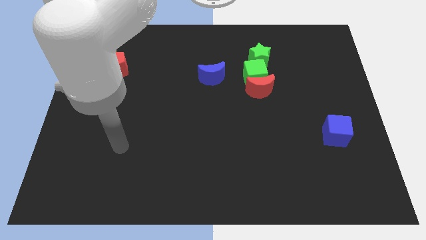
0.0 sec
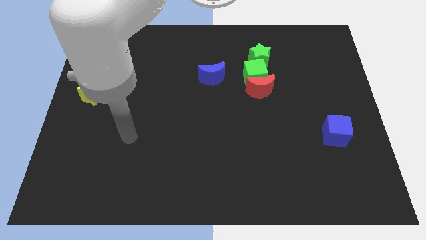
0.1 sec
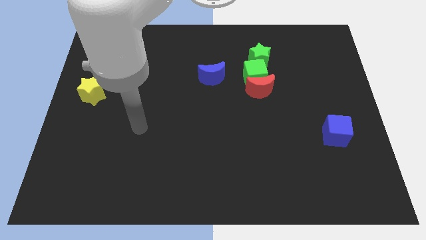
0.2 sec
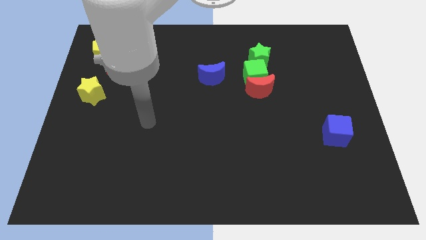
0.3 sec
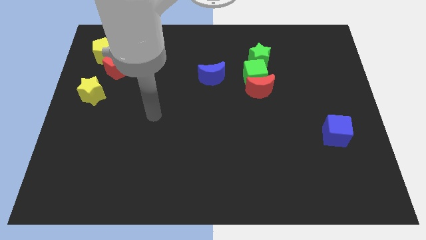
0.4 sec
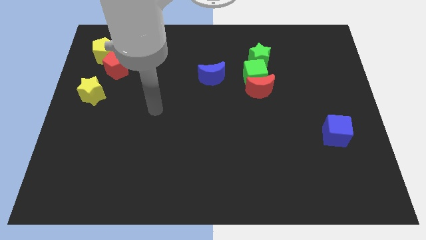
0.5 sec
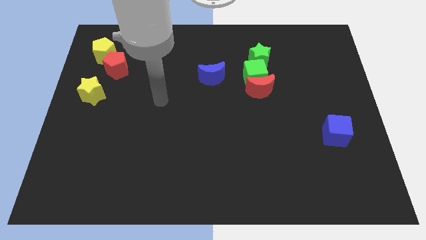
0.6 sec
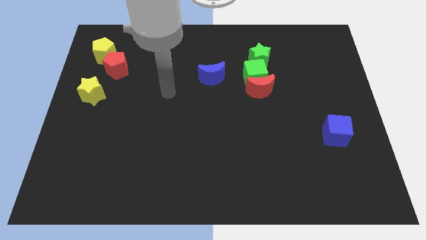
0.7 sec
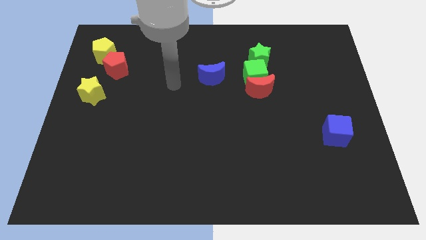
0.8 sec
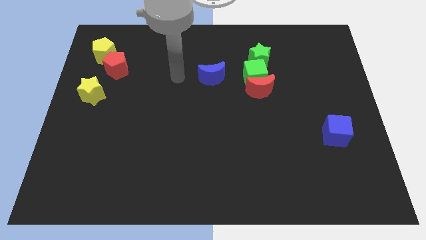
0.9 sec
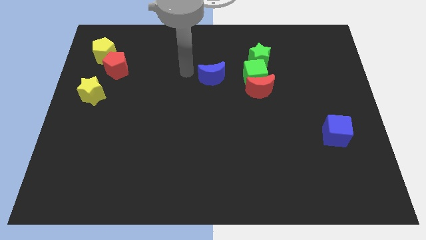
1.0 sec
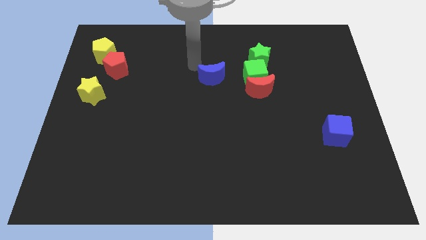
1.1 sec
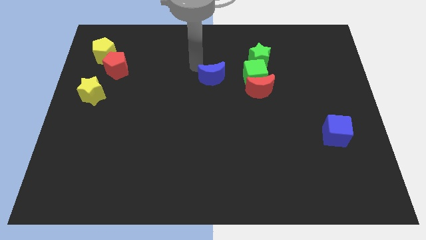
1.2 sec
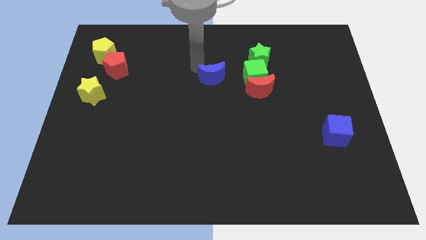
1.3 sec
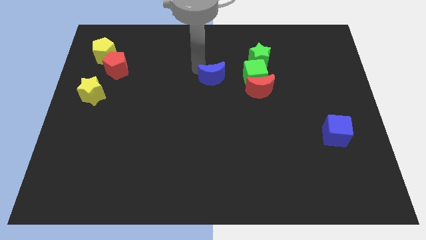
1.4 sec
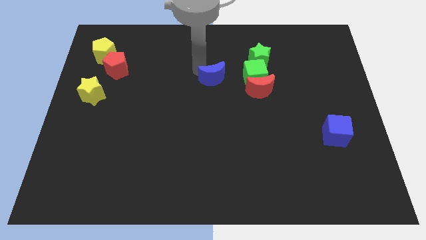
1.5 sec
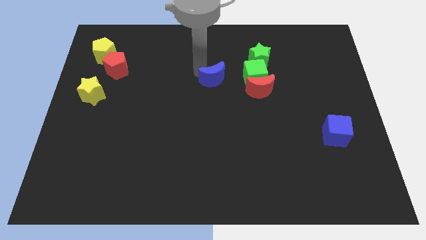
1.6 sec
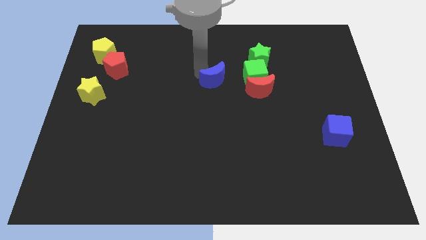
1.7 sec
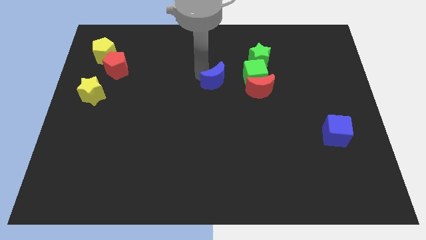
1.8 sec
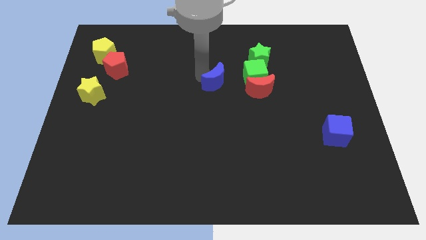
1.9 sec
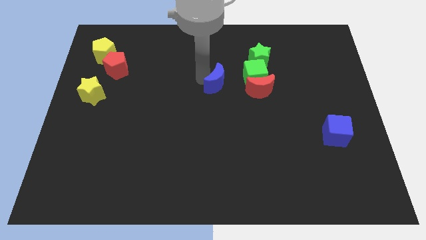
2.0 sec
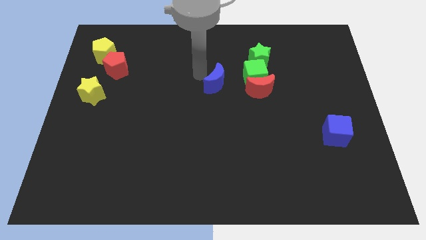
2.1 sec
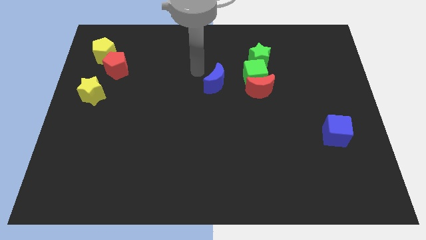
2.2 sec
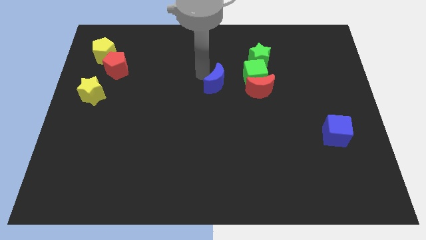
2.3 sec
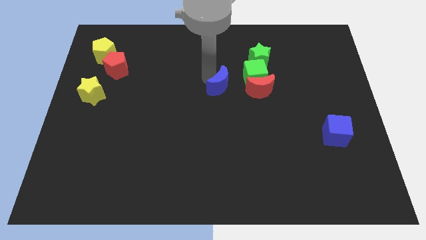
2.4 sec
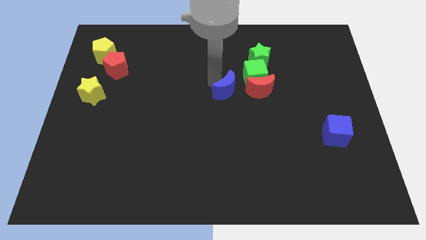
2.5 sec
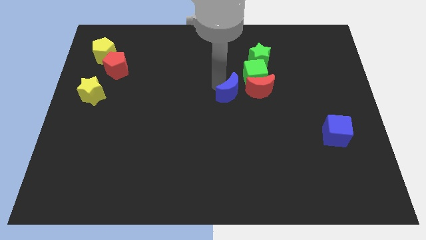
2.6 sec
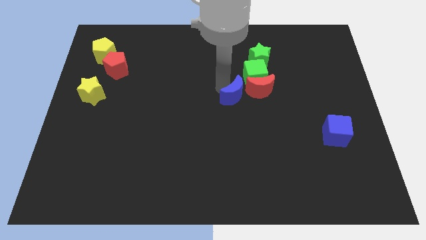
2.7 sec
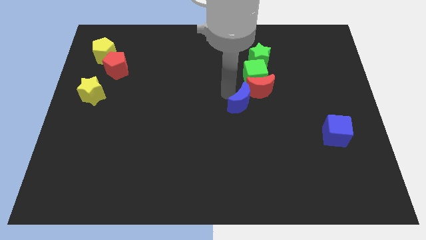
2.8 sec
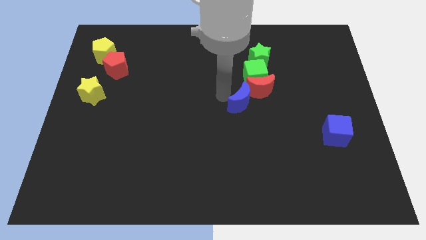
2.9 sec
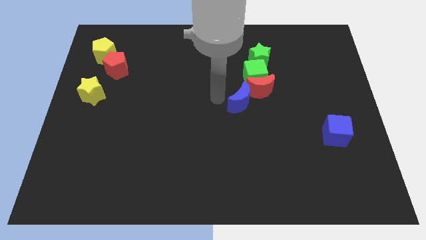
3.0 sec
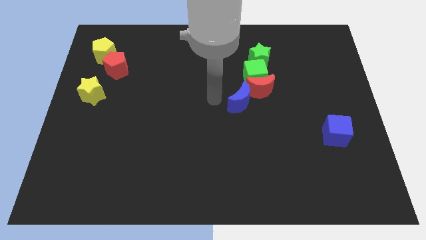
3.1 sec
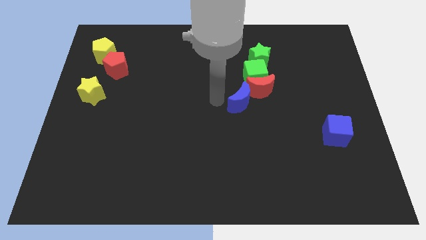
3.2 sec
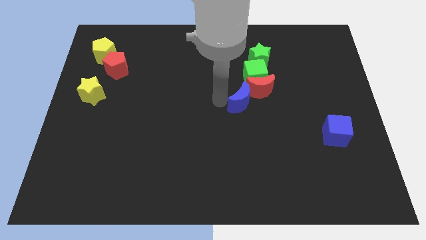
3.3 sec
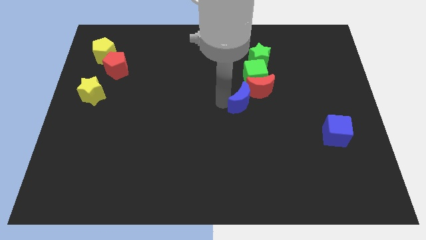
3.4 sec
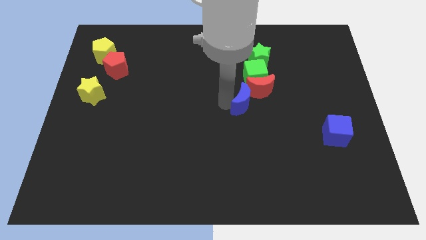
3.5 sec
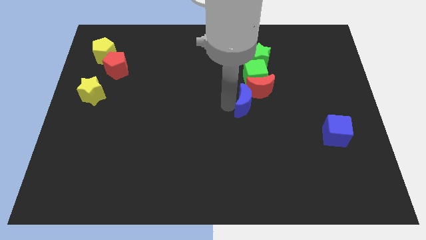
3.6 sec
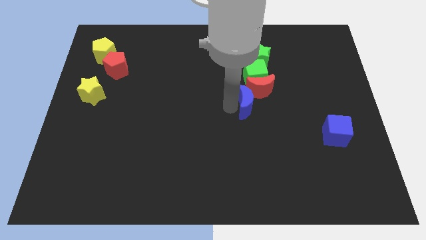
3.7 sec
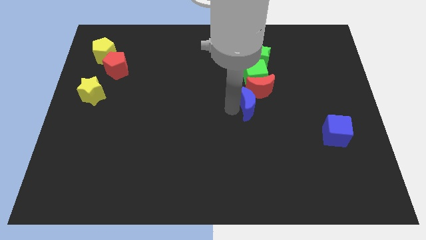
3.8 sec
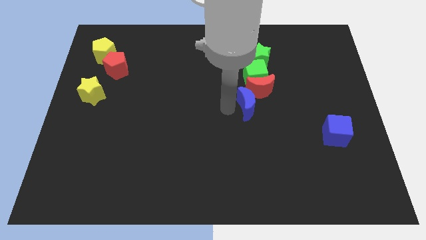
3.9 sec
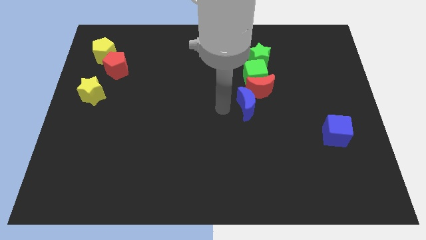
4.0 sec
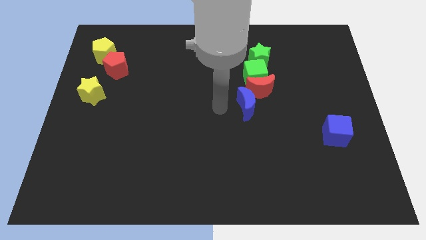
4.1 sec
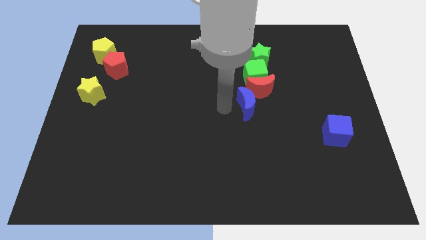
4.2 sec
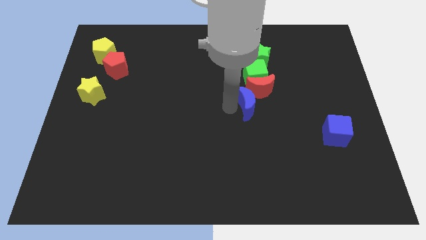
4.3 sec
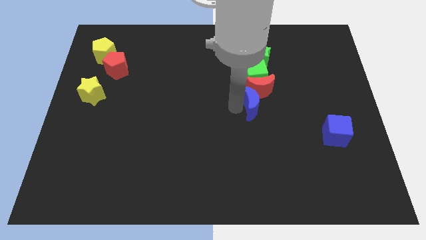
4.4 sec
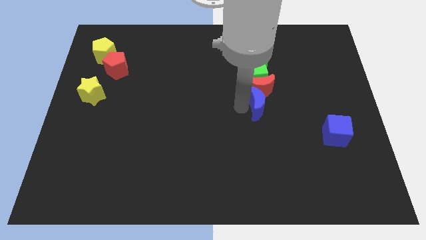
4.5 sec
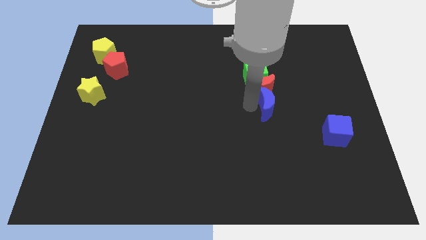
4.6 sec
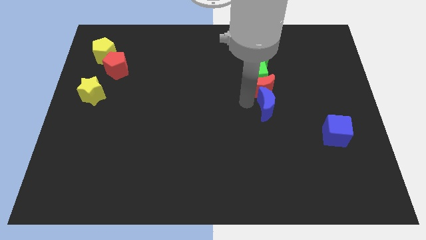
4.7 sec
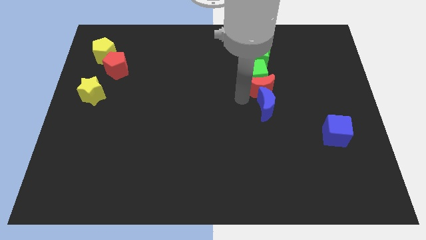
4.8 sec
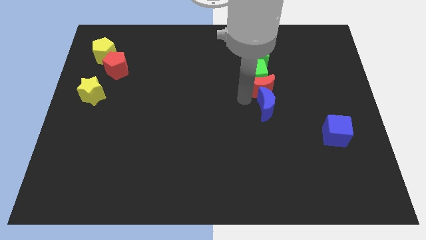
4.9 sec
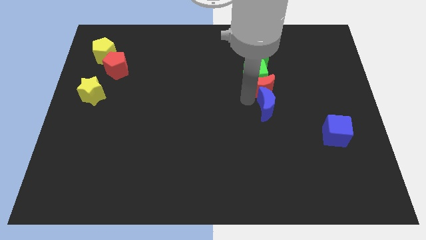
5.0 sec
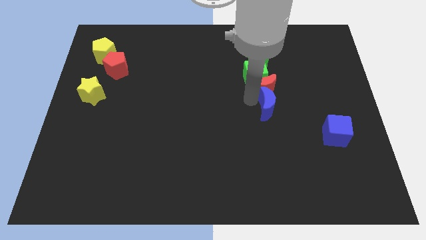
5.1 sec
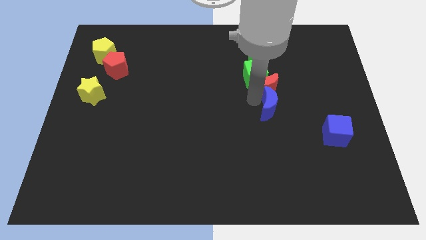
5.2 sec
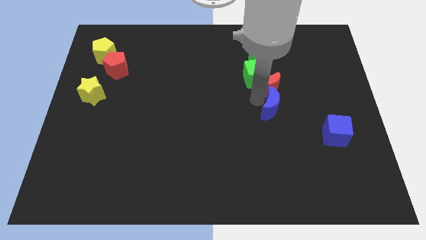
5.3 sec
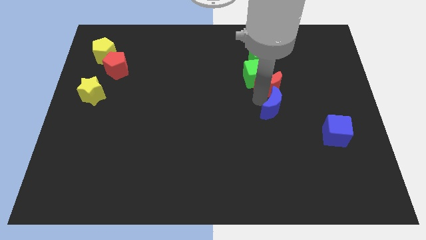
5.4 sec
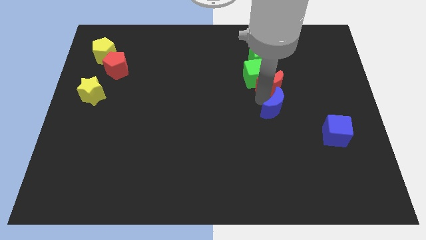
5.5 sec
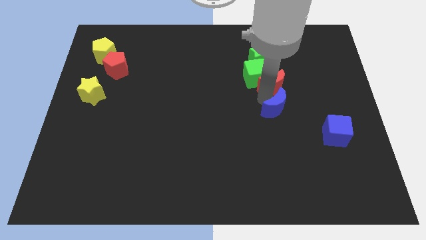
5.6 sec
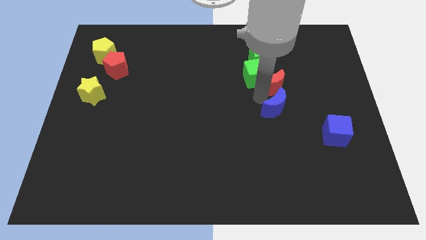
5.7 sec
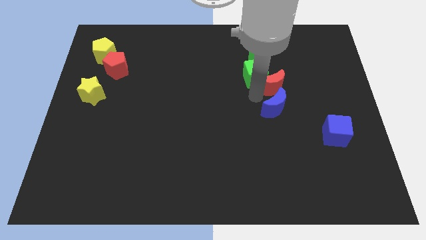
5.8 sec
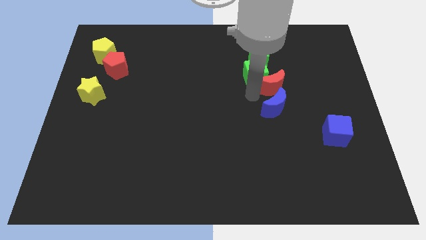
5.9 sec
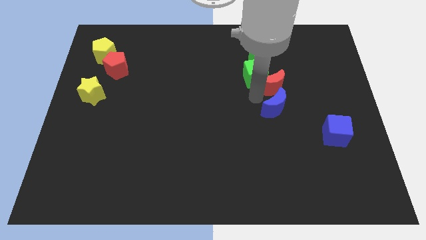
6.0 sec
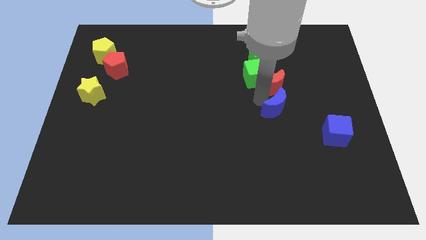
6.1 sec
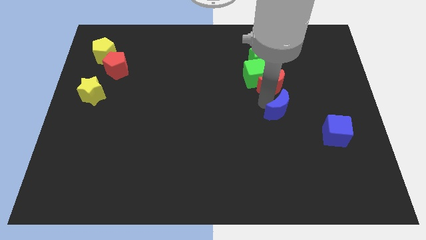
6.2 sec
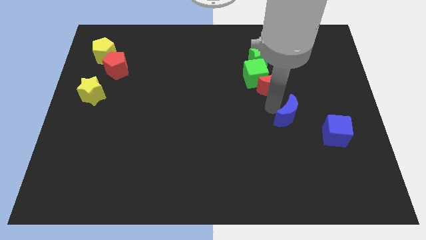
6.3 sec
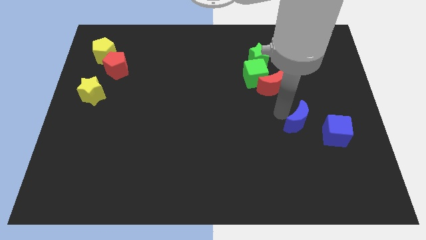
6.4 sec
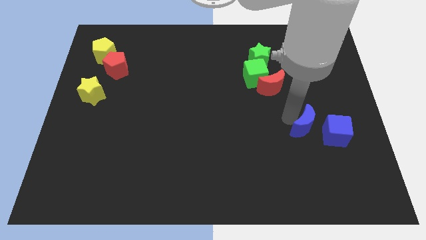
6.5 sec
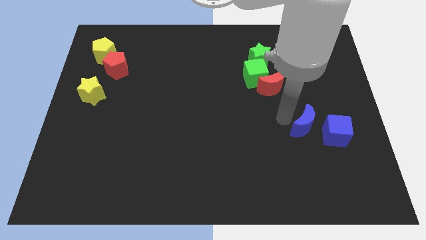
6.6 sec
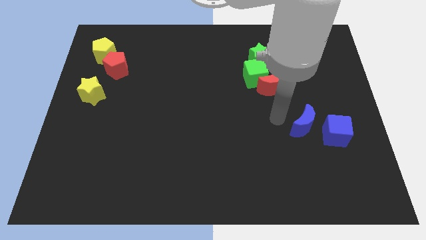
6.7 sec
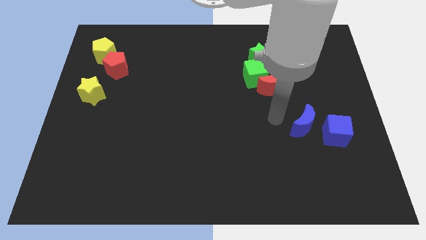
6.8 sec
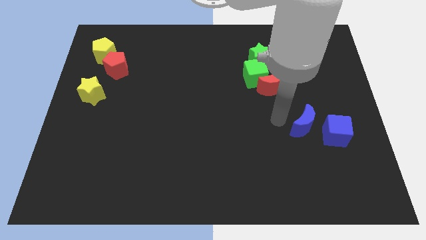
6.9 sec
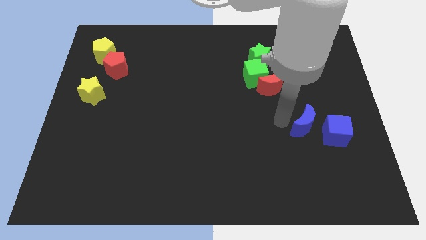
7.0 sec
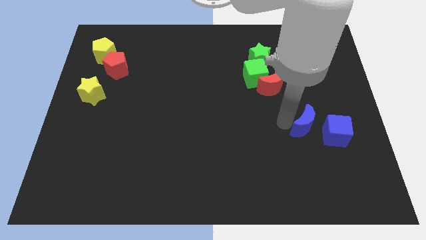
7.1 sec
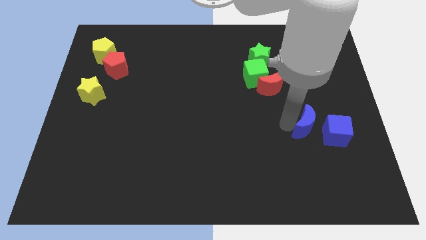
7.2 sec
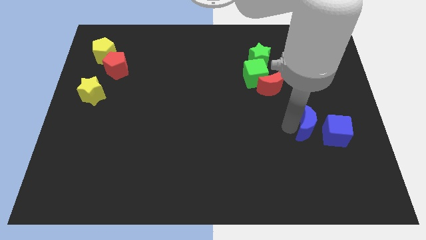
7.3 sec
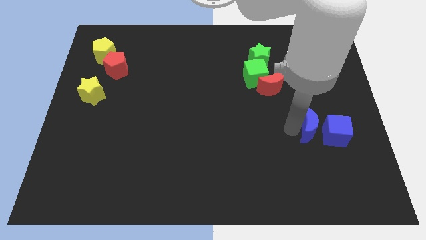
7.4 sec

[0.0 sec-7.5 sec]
push the blue moon close to the blue cube
